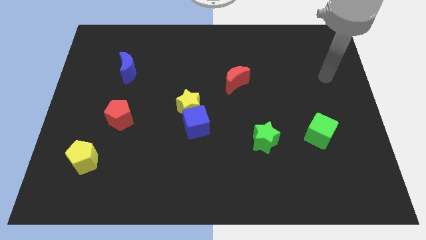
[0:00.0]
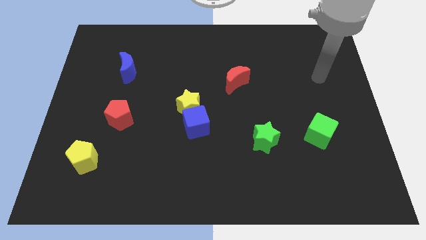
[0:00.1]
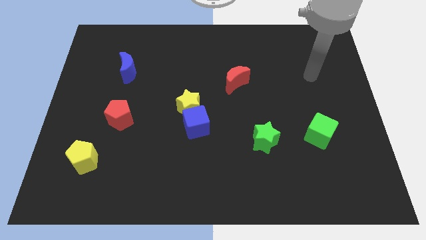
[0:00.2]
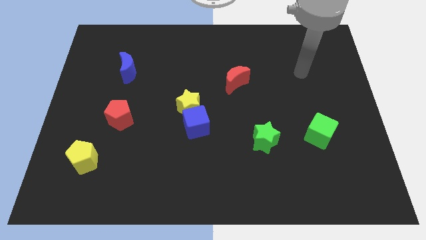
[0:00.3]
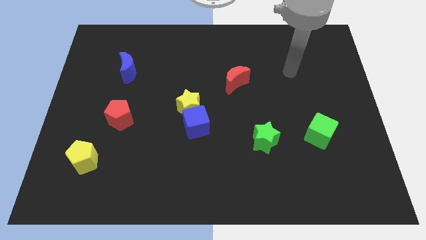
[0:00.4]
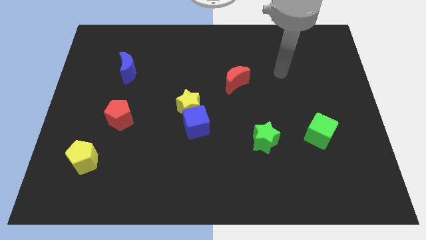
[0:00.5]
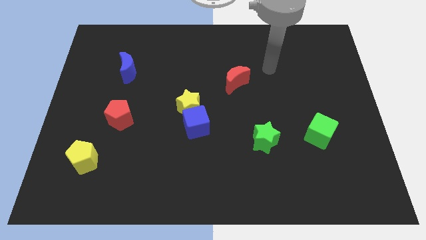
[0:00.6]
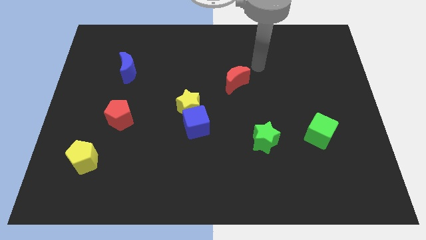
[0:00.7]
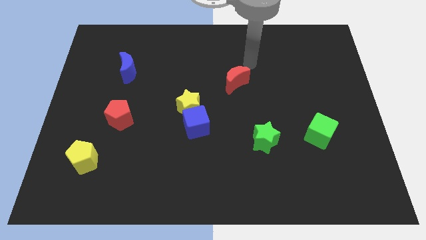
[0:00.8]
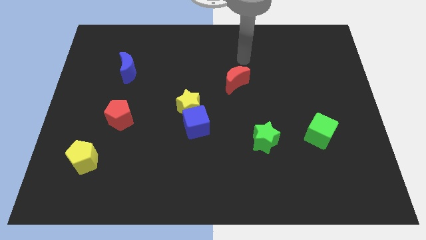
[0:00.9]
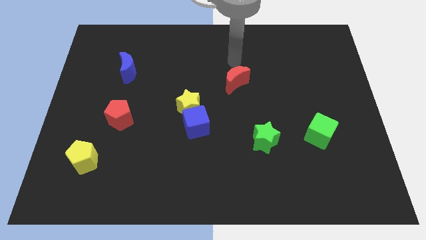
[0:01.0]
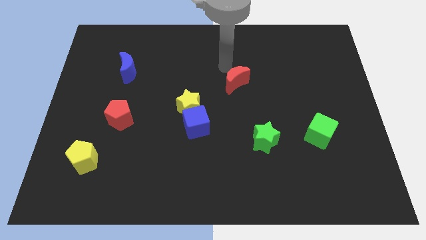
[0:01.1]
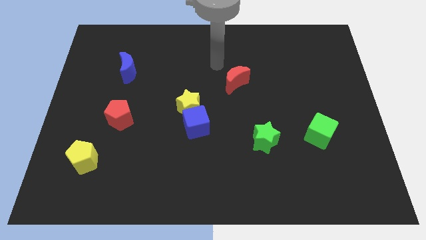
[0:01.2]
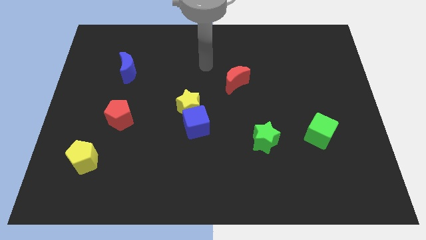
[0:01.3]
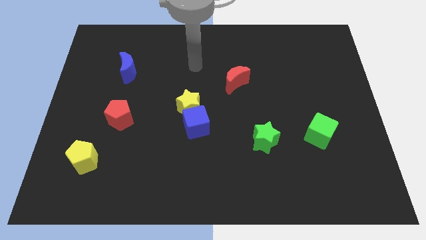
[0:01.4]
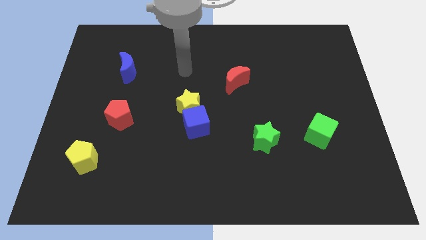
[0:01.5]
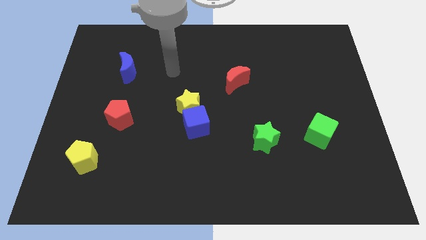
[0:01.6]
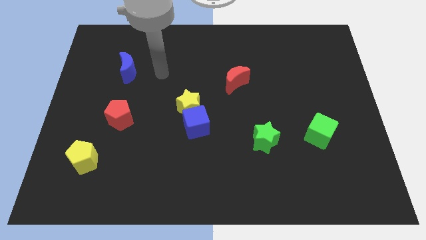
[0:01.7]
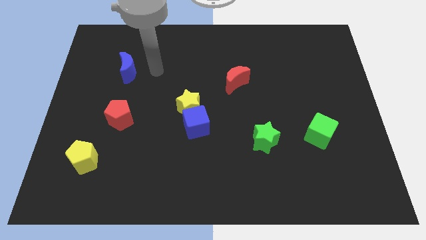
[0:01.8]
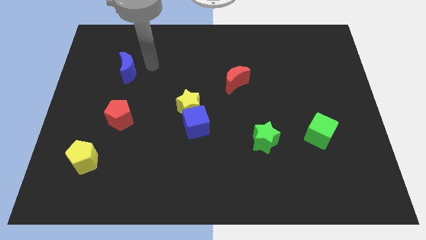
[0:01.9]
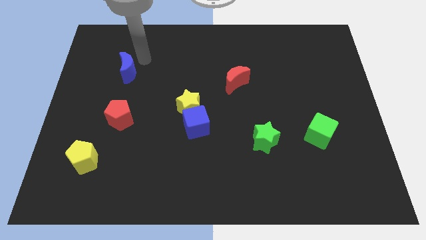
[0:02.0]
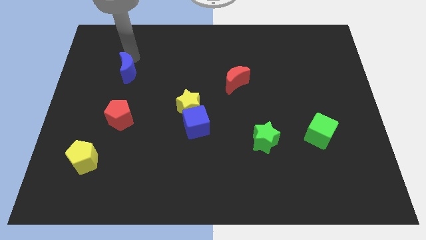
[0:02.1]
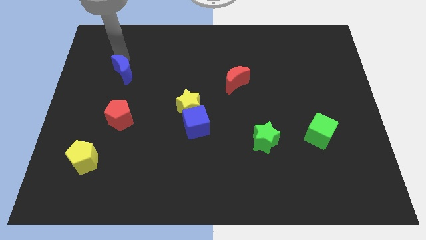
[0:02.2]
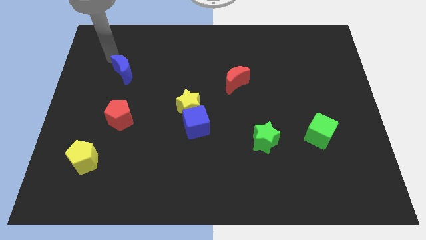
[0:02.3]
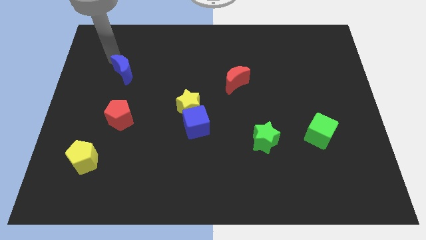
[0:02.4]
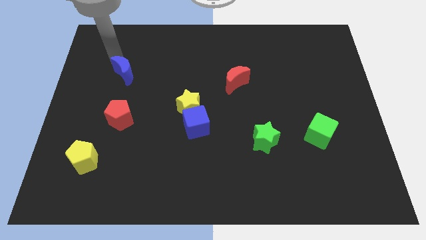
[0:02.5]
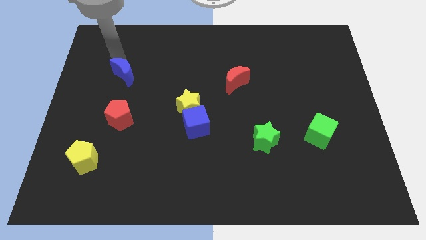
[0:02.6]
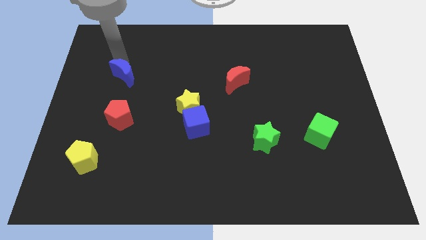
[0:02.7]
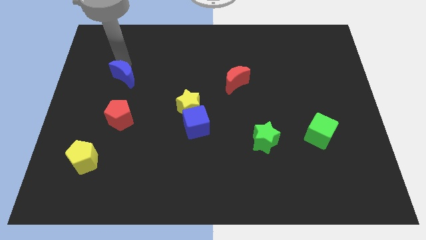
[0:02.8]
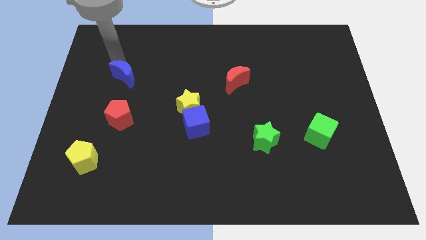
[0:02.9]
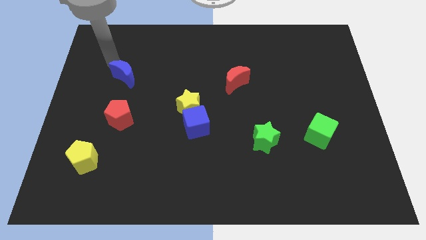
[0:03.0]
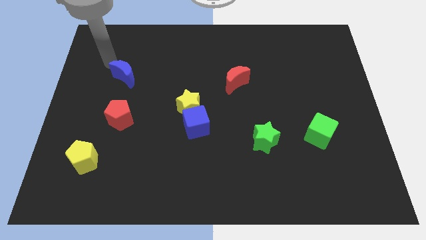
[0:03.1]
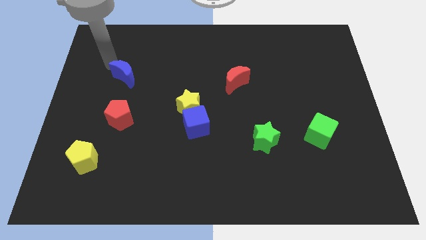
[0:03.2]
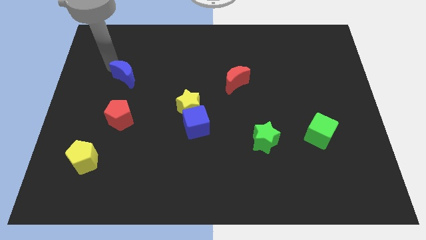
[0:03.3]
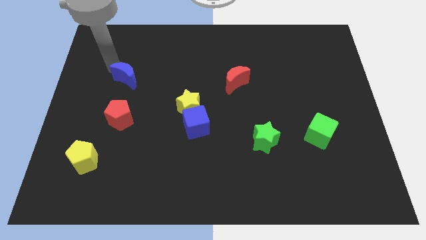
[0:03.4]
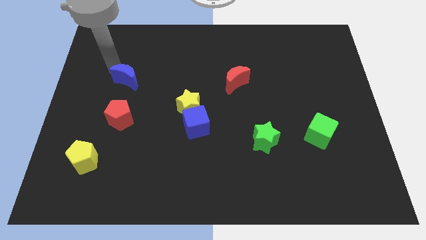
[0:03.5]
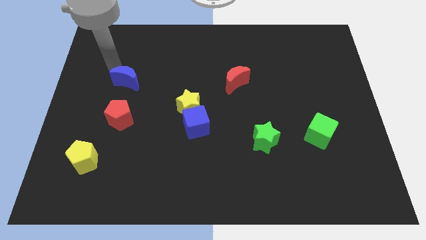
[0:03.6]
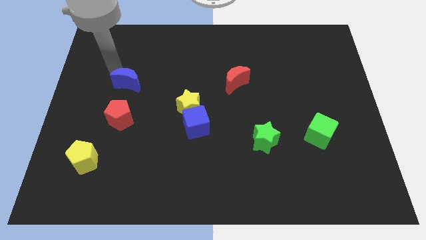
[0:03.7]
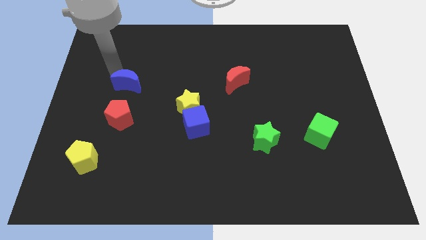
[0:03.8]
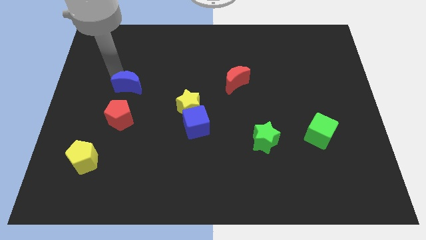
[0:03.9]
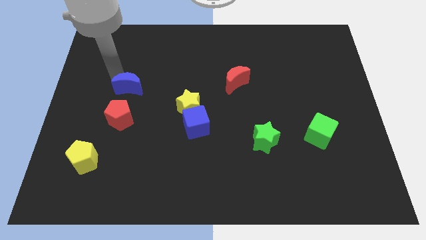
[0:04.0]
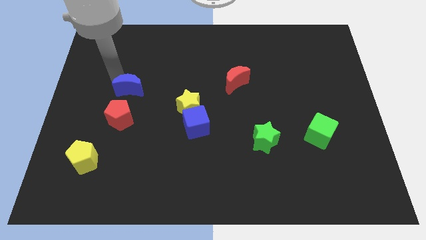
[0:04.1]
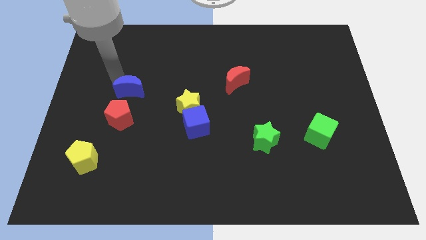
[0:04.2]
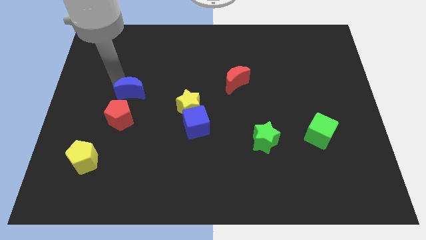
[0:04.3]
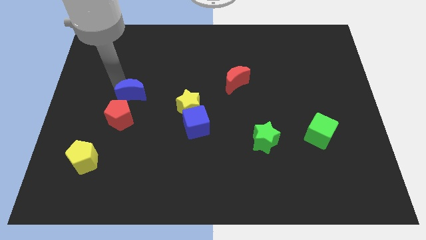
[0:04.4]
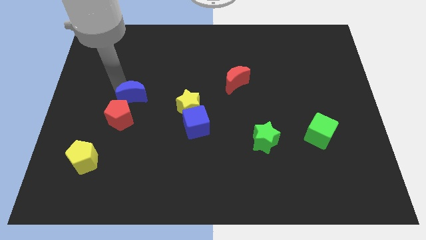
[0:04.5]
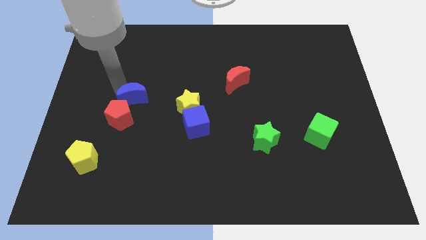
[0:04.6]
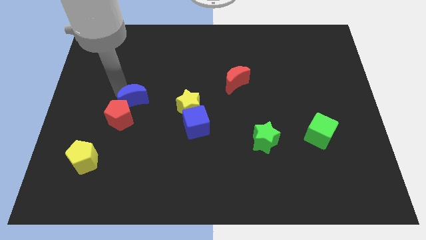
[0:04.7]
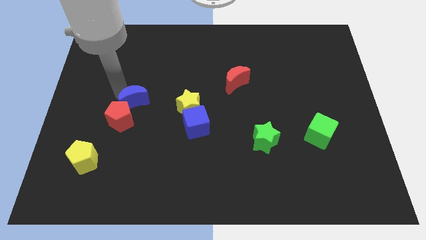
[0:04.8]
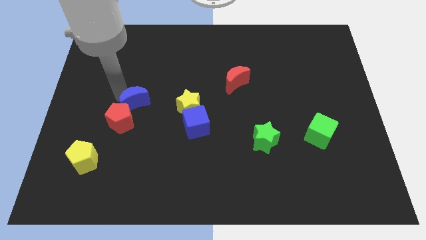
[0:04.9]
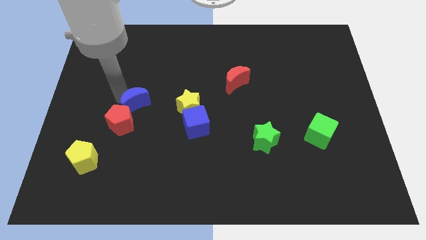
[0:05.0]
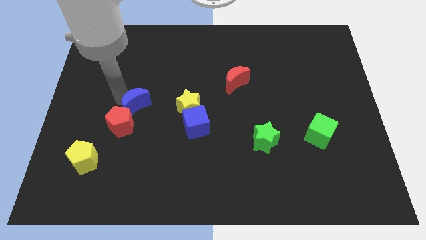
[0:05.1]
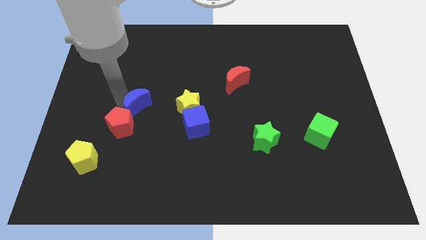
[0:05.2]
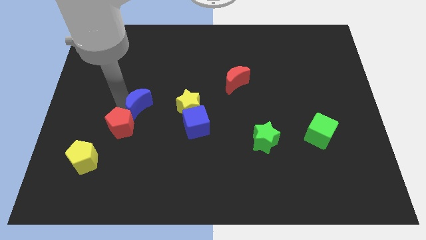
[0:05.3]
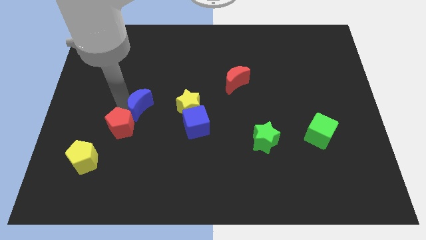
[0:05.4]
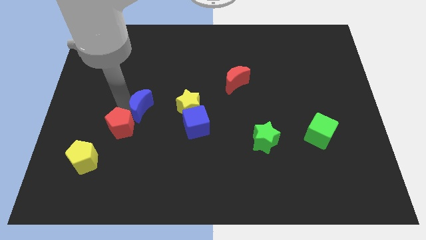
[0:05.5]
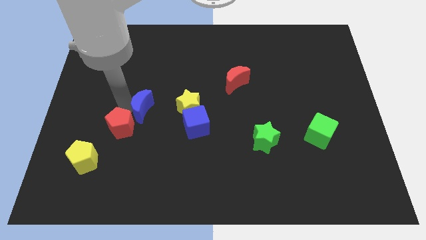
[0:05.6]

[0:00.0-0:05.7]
move the blue moon right of the red pentagon

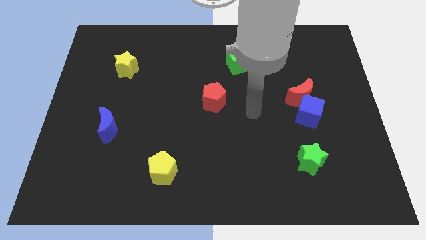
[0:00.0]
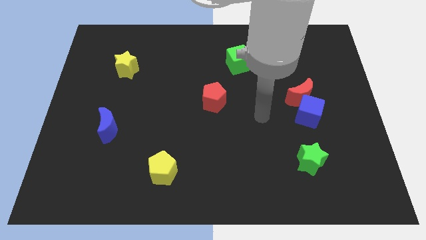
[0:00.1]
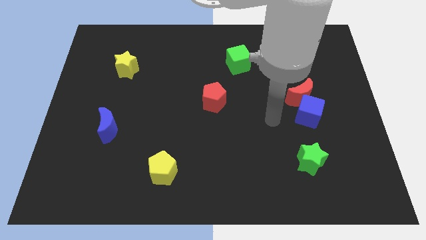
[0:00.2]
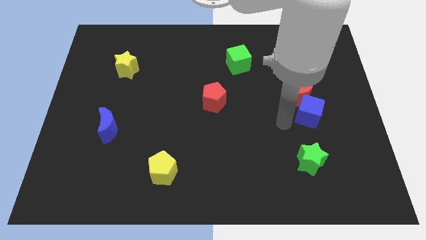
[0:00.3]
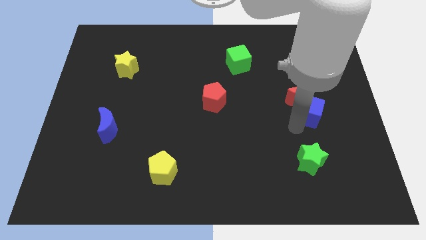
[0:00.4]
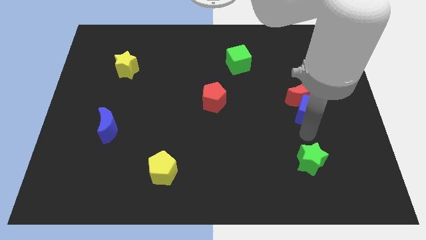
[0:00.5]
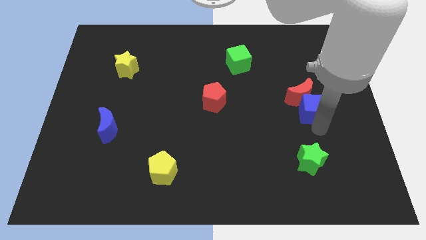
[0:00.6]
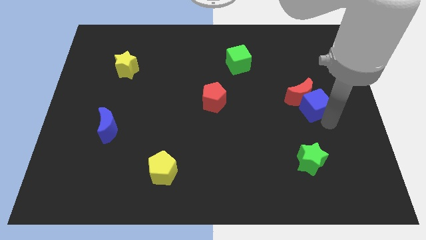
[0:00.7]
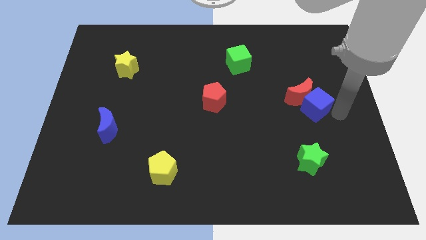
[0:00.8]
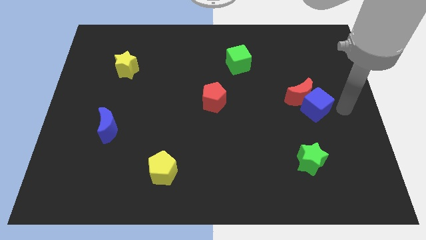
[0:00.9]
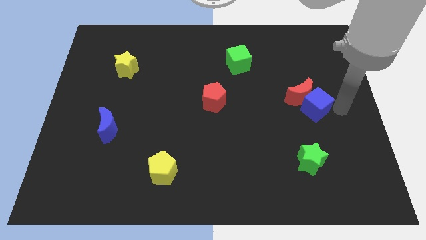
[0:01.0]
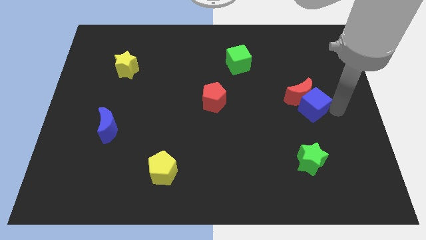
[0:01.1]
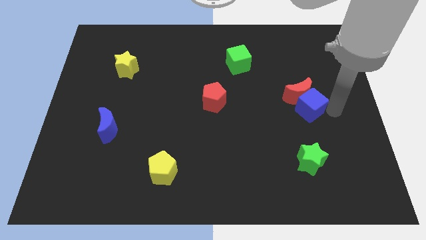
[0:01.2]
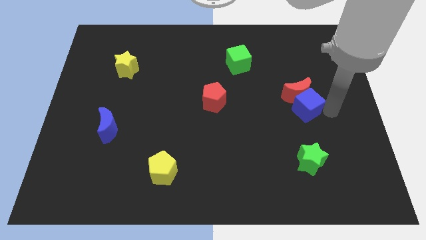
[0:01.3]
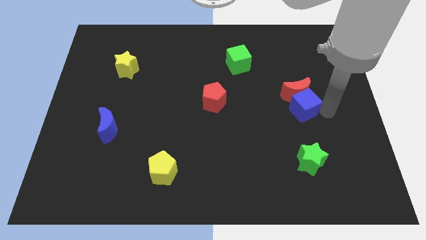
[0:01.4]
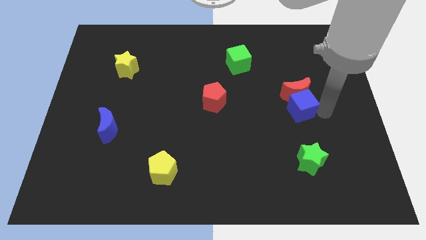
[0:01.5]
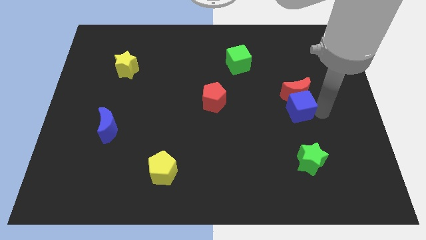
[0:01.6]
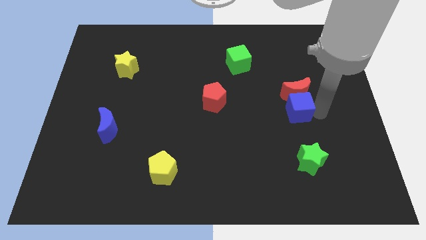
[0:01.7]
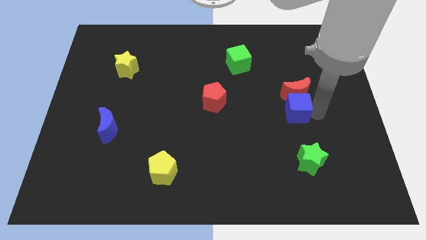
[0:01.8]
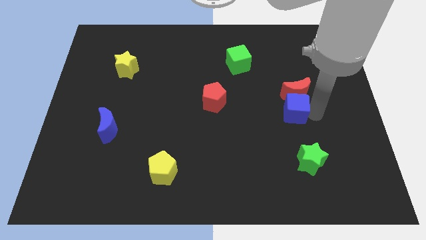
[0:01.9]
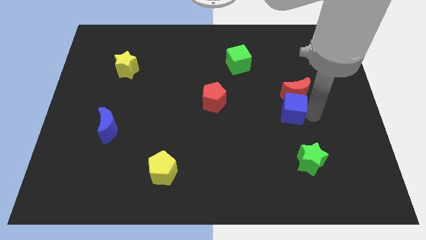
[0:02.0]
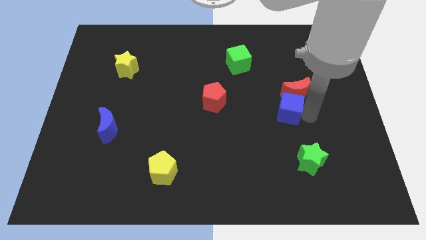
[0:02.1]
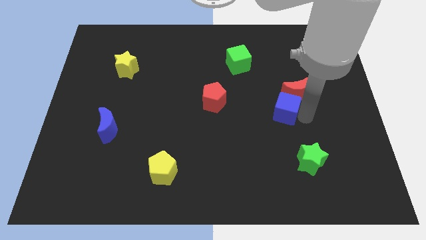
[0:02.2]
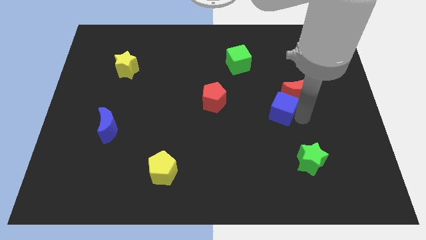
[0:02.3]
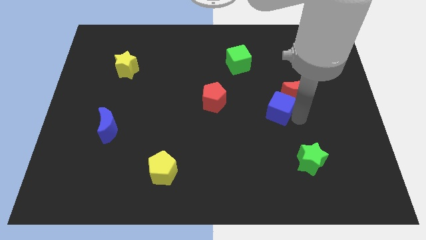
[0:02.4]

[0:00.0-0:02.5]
put the blue cube just right of the red pentagon
